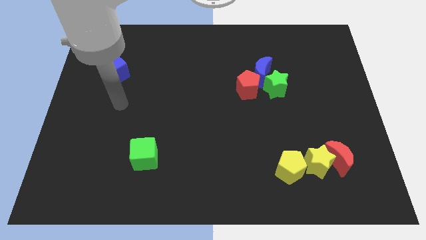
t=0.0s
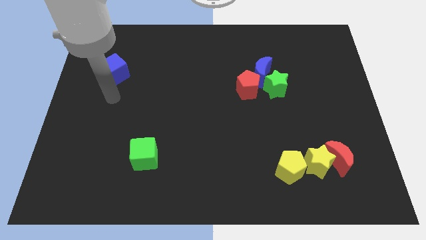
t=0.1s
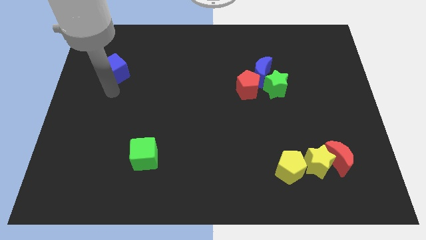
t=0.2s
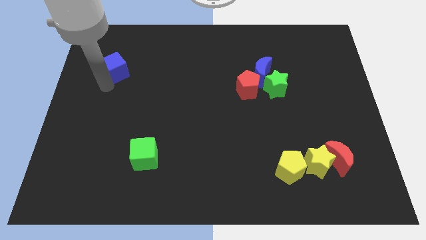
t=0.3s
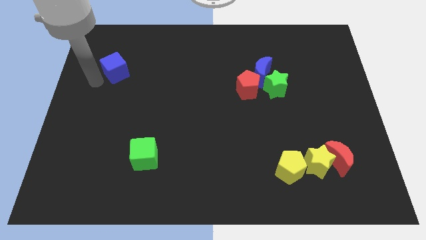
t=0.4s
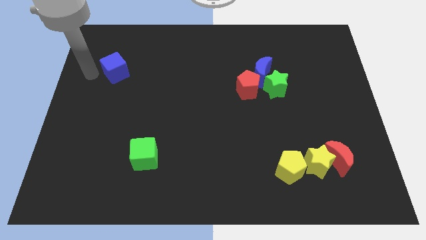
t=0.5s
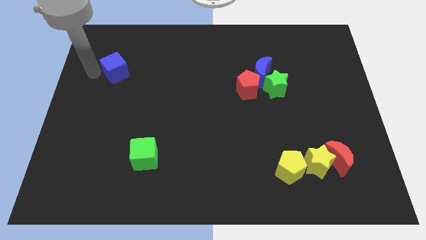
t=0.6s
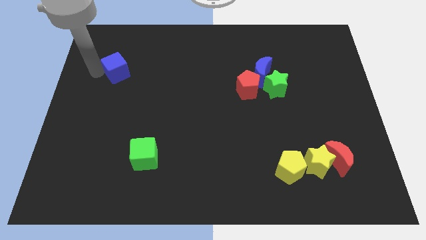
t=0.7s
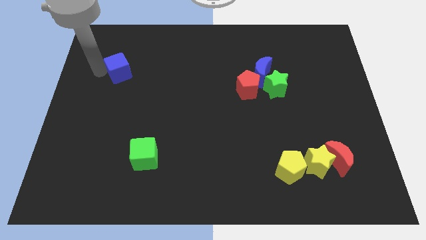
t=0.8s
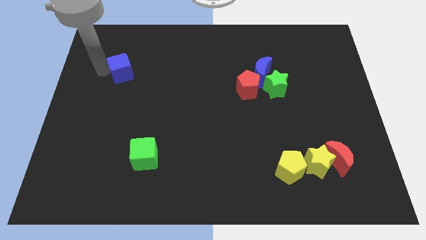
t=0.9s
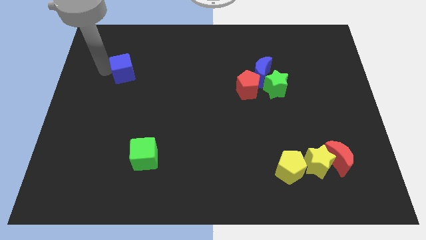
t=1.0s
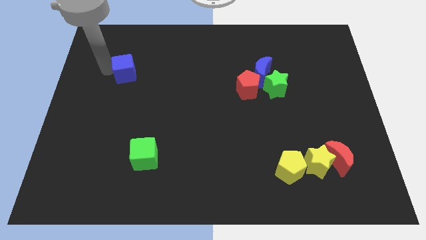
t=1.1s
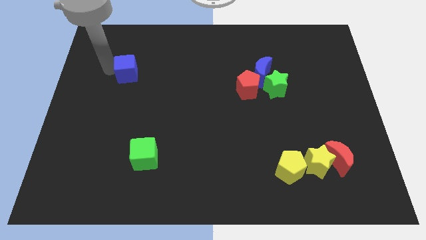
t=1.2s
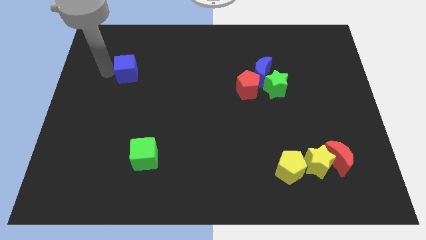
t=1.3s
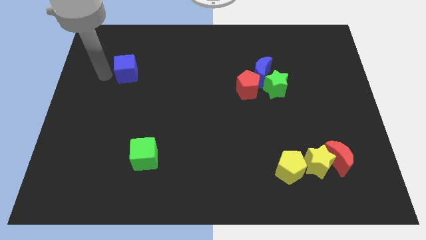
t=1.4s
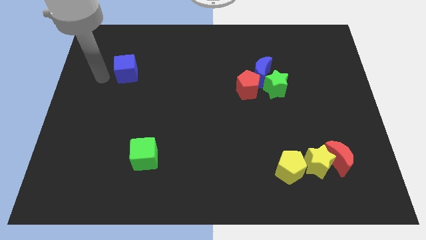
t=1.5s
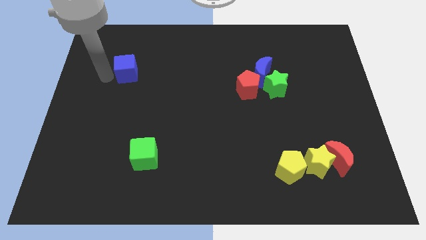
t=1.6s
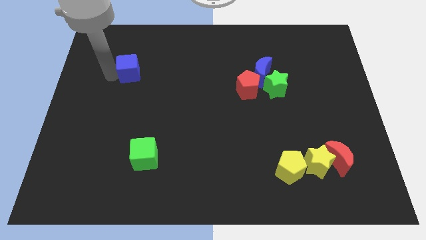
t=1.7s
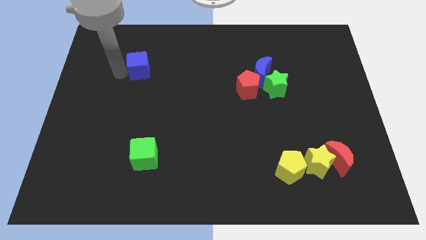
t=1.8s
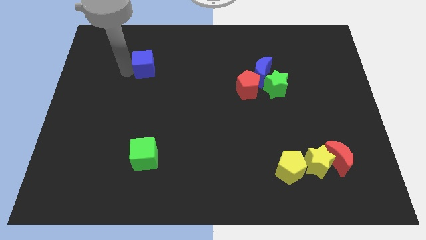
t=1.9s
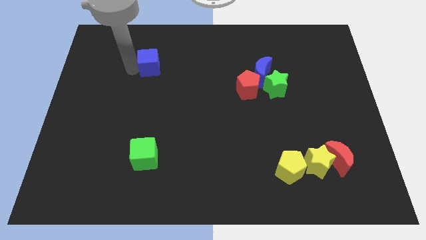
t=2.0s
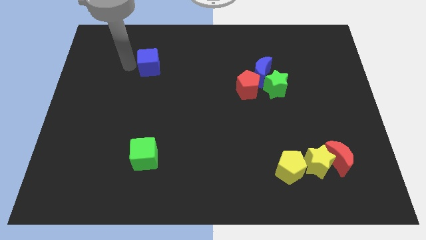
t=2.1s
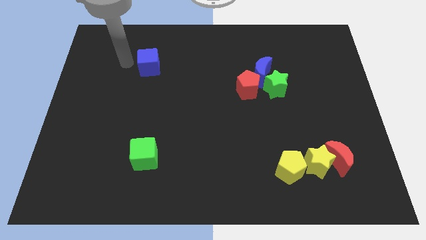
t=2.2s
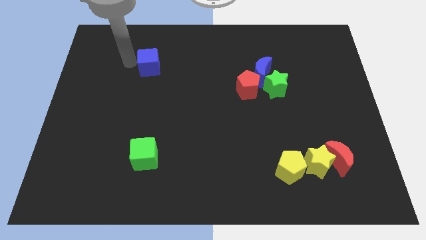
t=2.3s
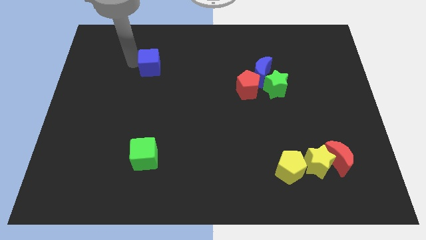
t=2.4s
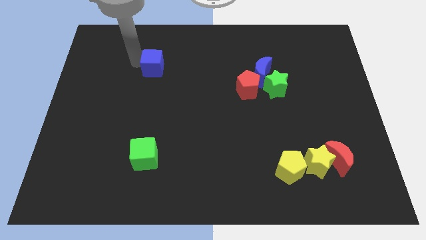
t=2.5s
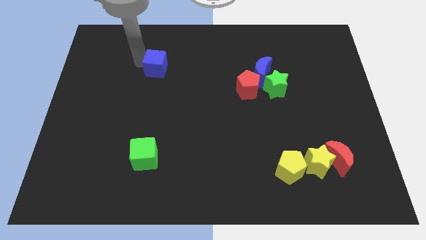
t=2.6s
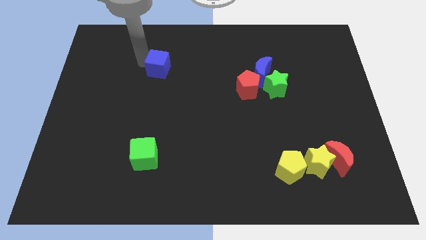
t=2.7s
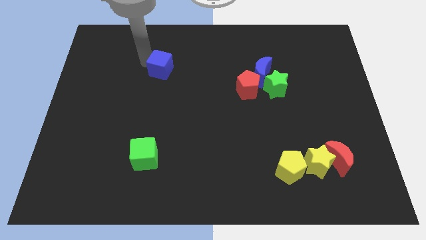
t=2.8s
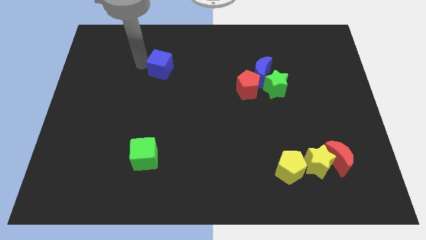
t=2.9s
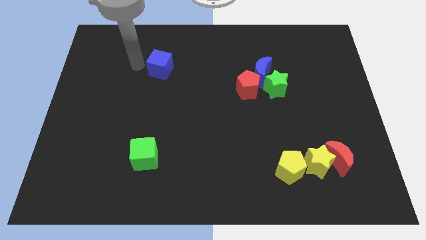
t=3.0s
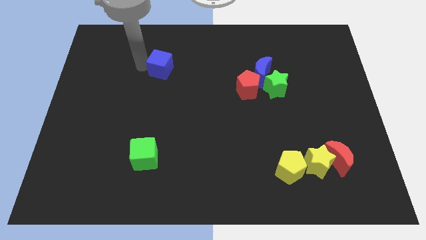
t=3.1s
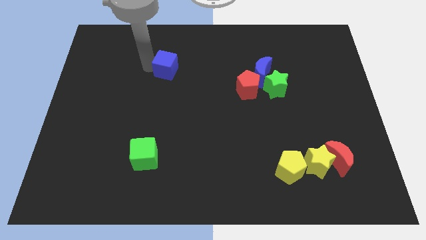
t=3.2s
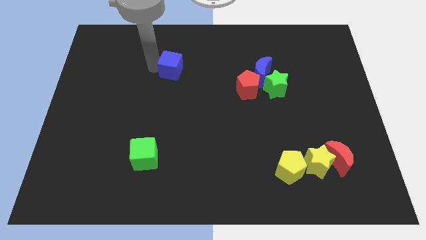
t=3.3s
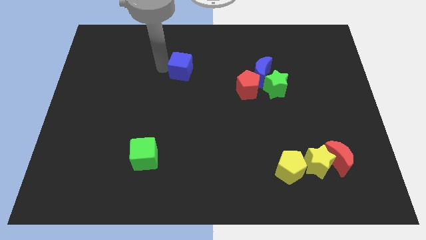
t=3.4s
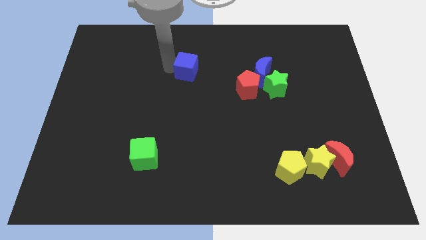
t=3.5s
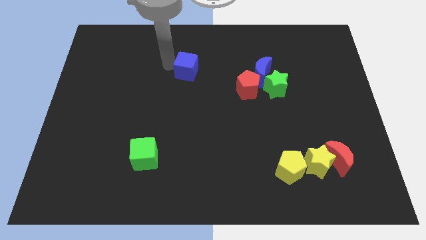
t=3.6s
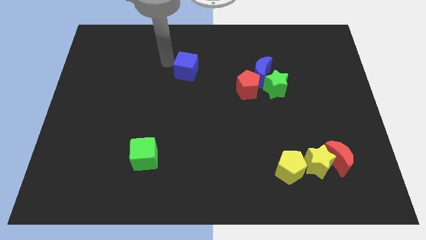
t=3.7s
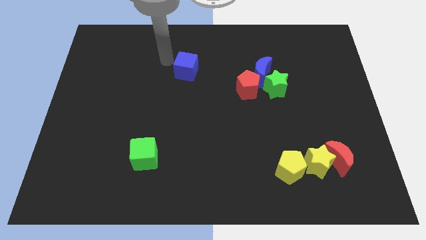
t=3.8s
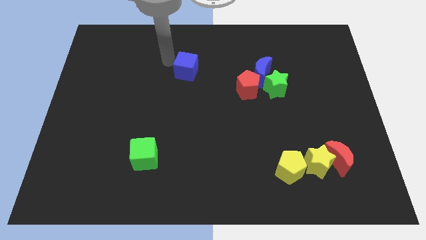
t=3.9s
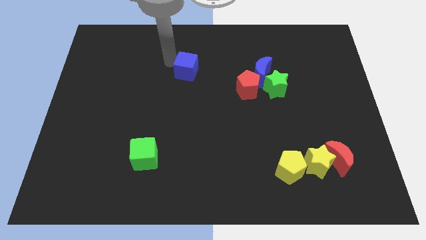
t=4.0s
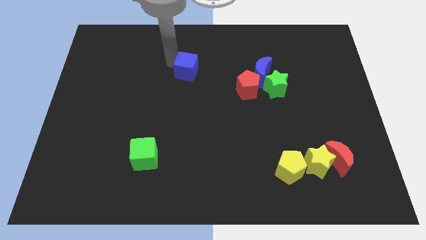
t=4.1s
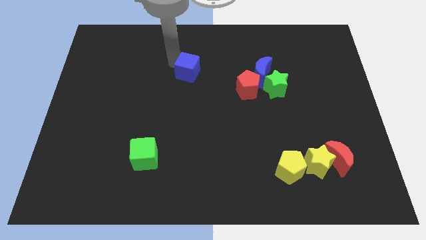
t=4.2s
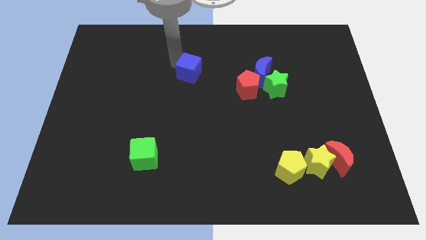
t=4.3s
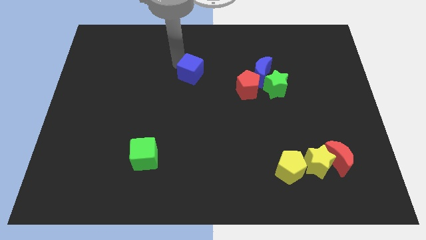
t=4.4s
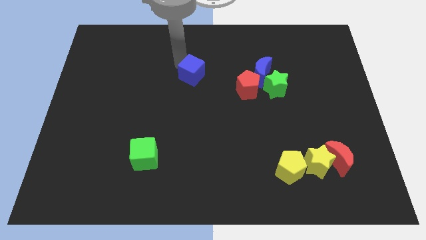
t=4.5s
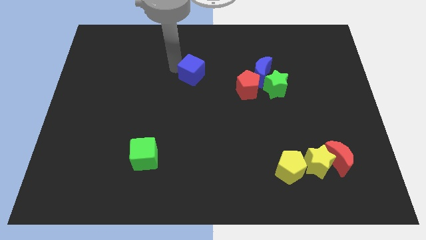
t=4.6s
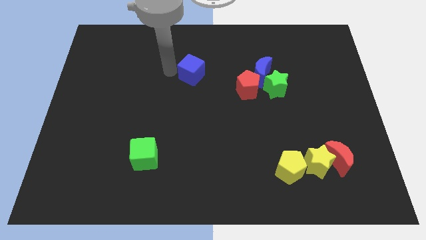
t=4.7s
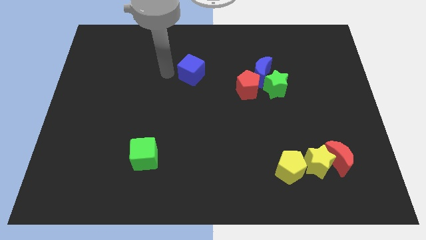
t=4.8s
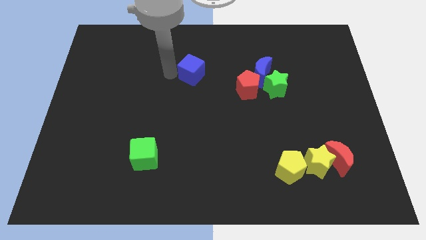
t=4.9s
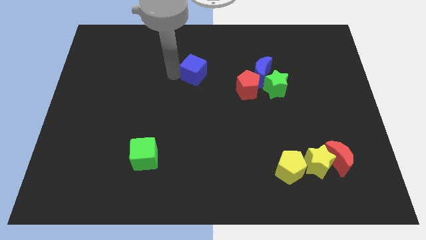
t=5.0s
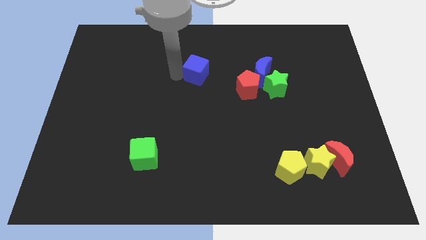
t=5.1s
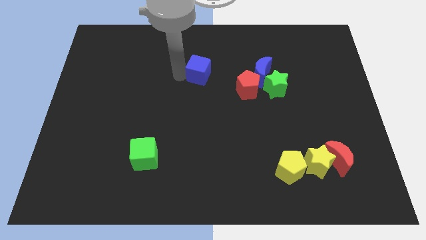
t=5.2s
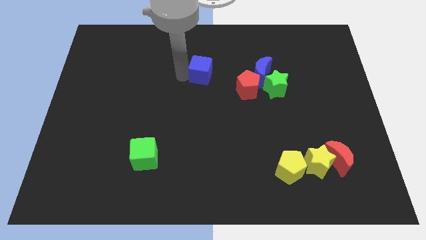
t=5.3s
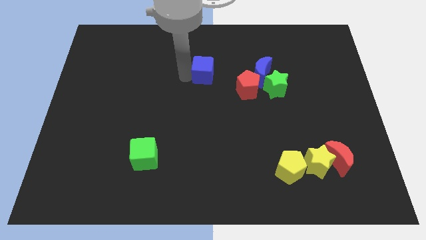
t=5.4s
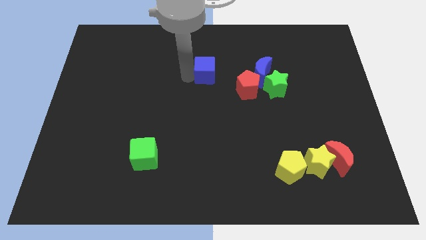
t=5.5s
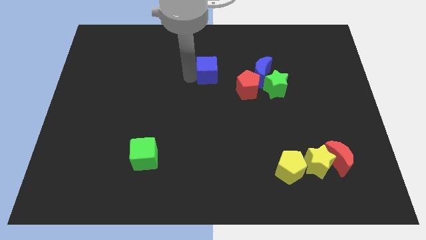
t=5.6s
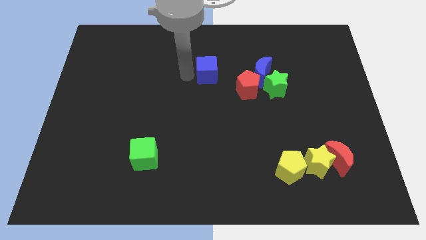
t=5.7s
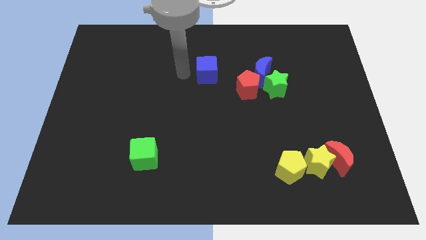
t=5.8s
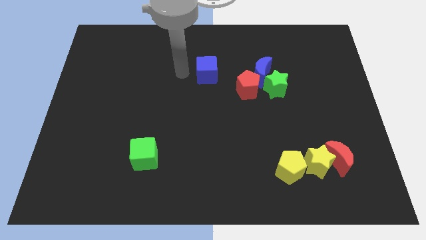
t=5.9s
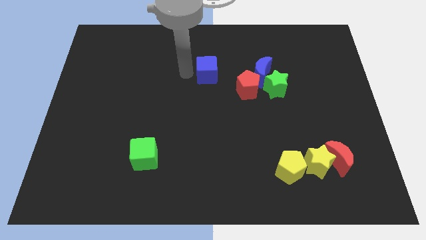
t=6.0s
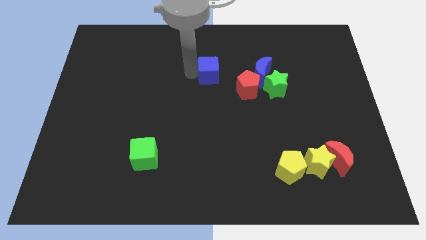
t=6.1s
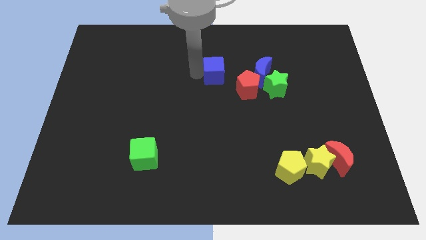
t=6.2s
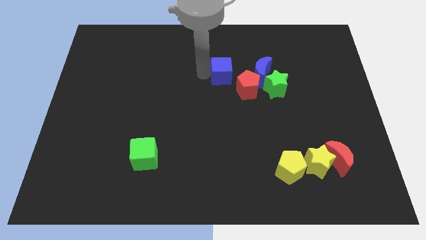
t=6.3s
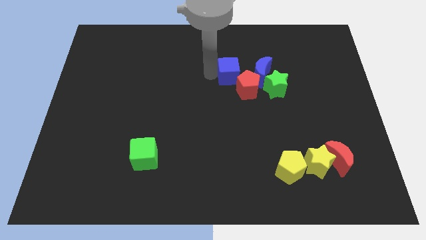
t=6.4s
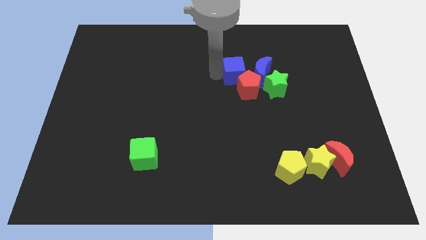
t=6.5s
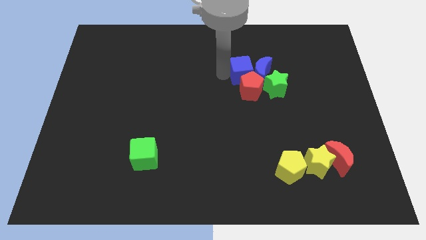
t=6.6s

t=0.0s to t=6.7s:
put the blue cube close to the blue moon

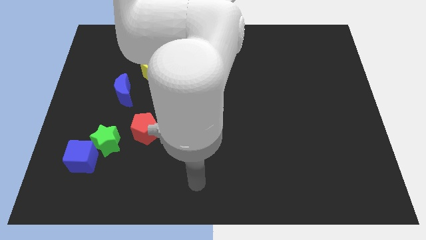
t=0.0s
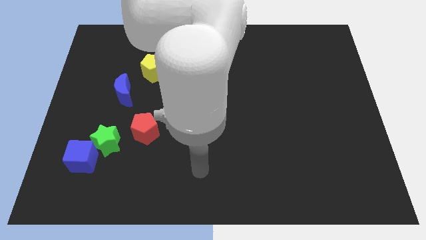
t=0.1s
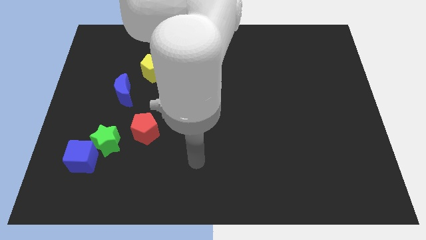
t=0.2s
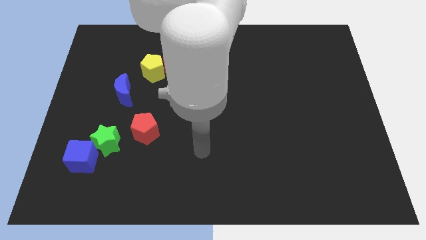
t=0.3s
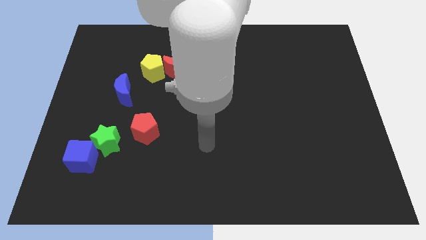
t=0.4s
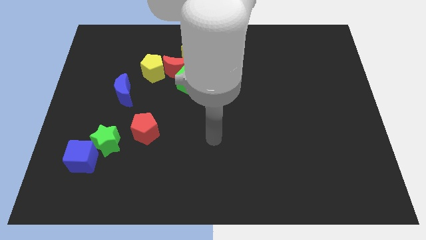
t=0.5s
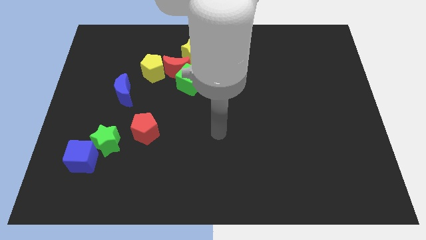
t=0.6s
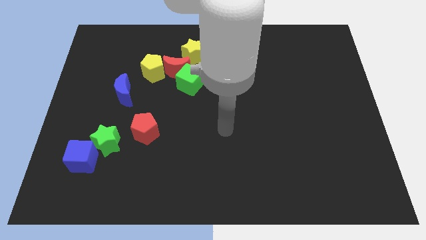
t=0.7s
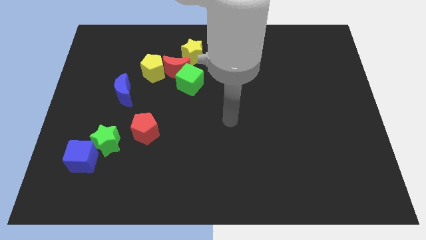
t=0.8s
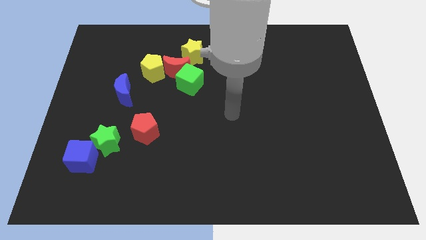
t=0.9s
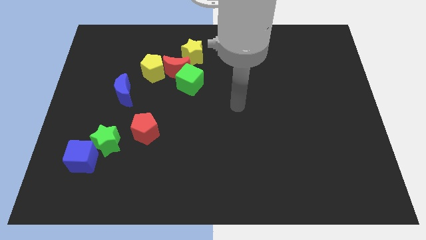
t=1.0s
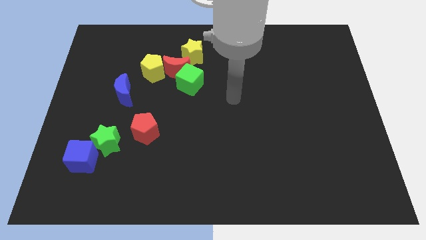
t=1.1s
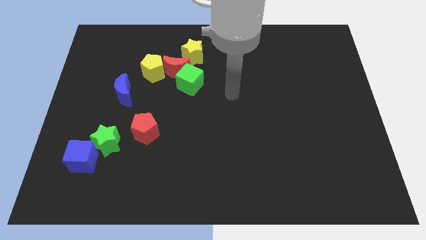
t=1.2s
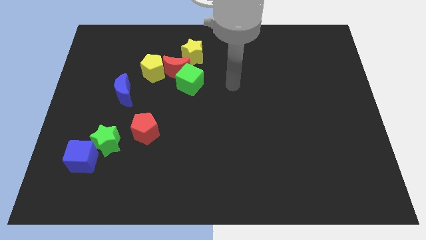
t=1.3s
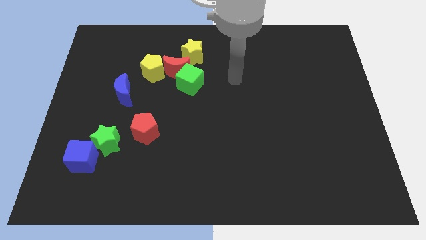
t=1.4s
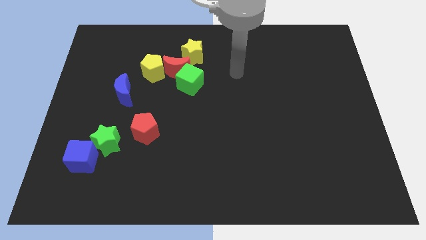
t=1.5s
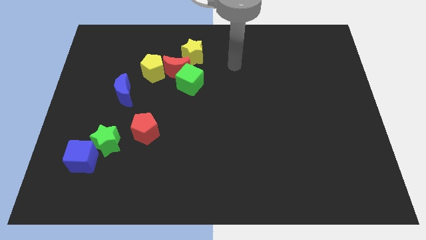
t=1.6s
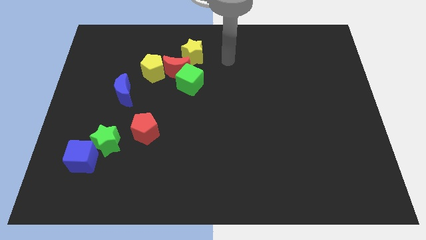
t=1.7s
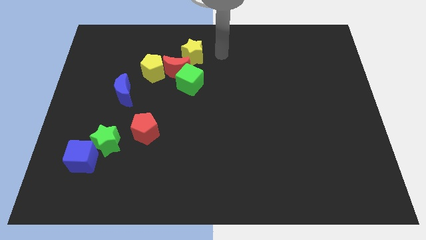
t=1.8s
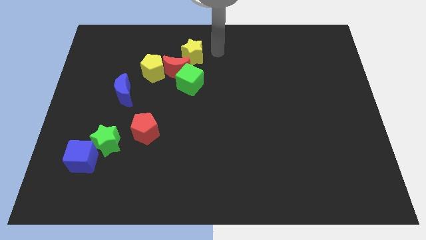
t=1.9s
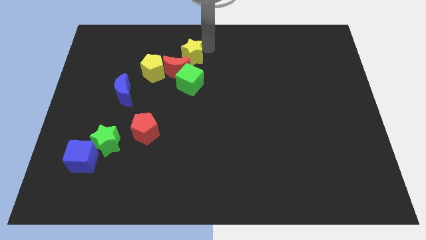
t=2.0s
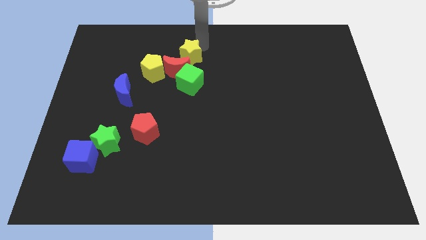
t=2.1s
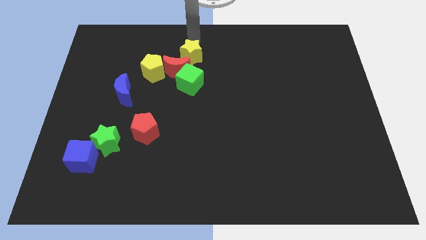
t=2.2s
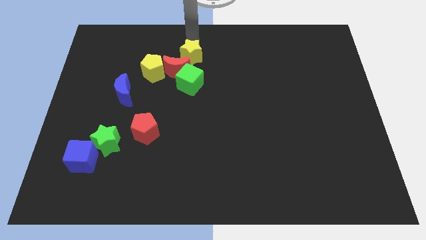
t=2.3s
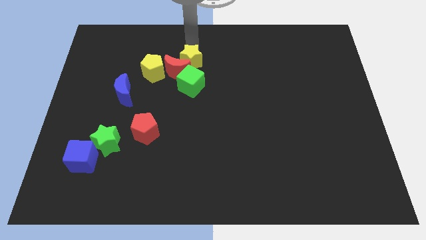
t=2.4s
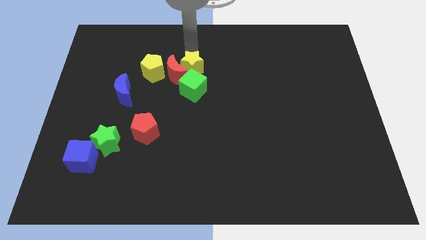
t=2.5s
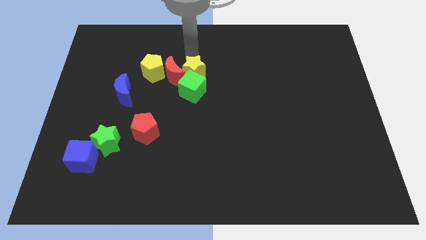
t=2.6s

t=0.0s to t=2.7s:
move the yellow star towards the green cube
